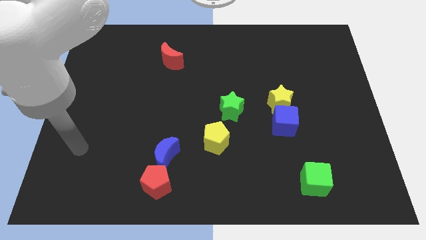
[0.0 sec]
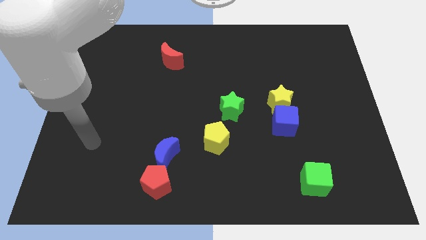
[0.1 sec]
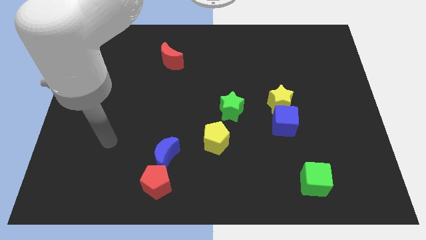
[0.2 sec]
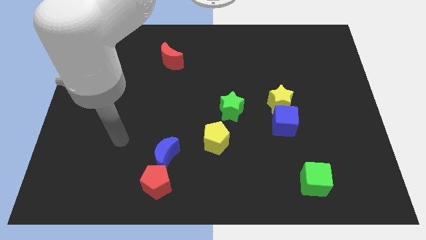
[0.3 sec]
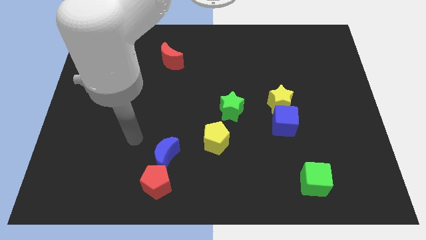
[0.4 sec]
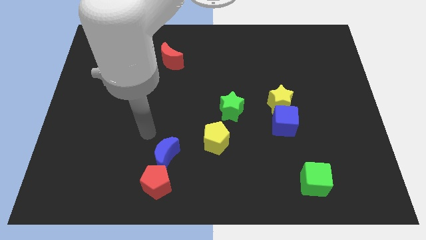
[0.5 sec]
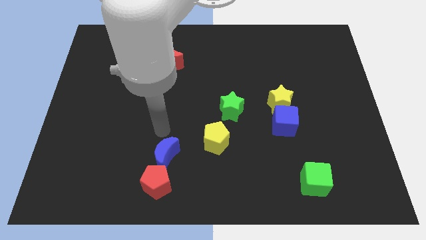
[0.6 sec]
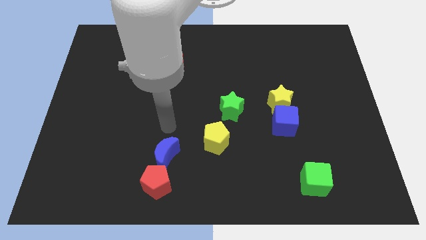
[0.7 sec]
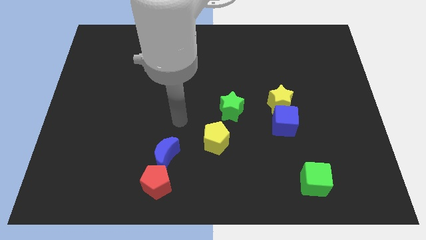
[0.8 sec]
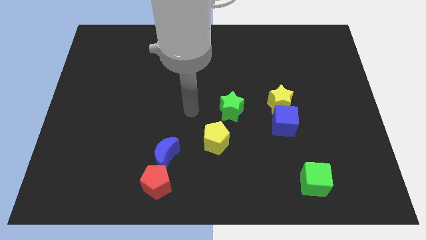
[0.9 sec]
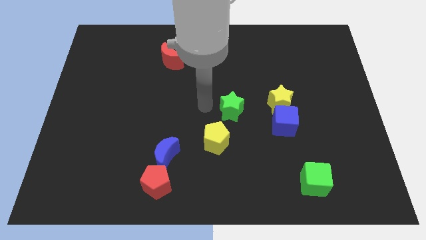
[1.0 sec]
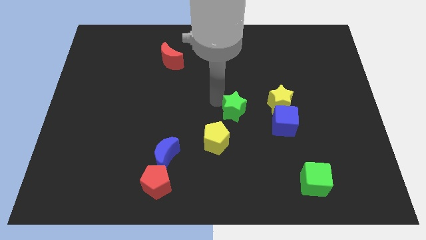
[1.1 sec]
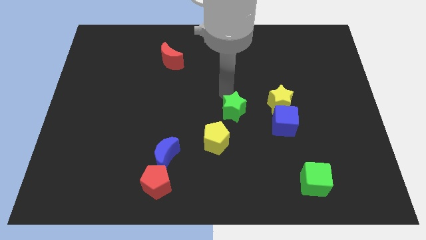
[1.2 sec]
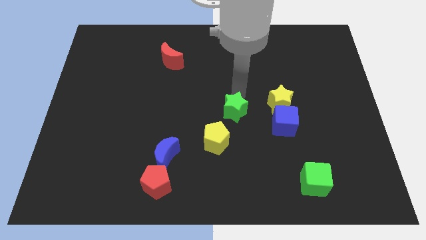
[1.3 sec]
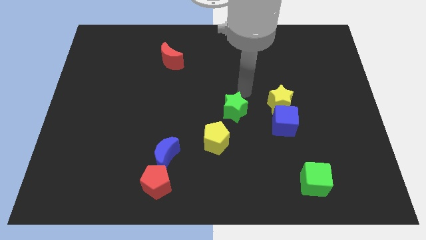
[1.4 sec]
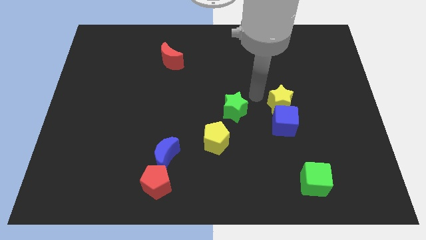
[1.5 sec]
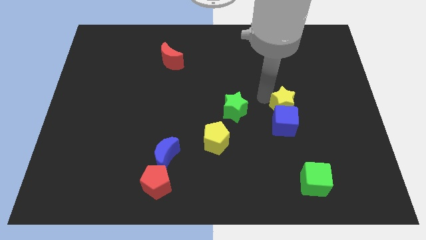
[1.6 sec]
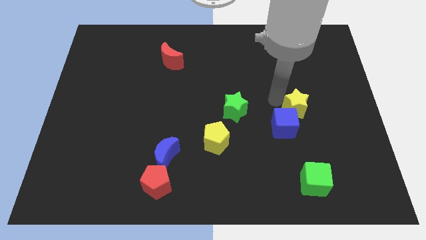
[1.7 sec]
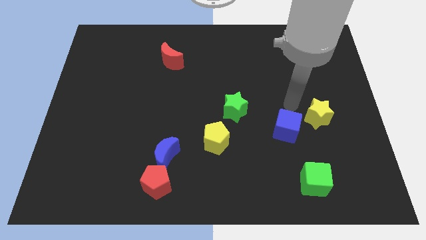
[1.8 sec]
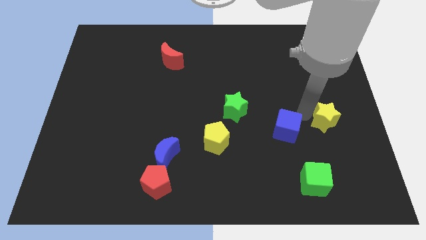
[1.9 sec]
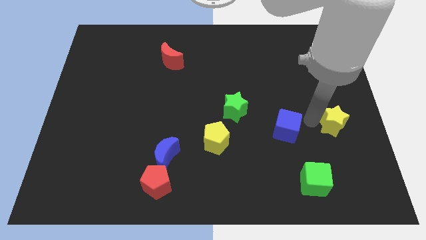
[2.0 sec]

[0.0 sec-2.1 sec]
separate the blue cube from the yellow star

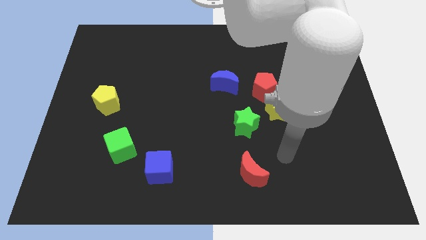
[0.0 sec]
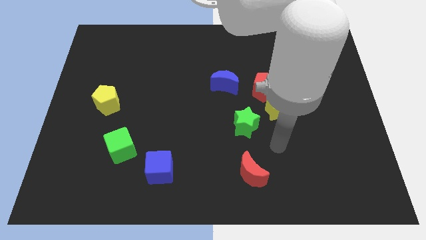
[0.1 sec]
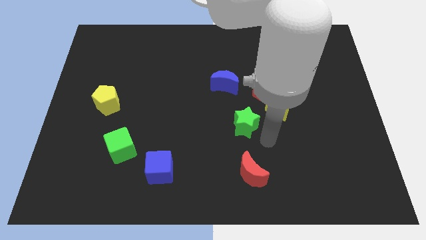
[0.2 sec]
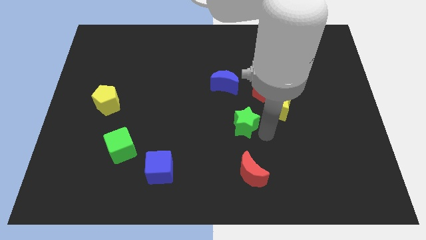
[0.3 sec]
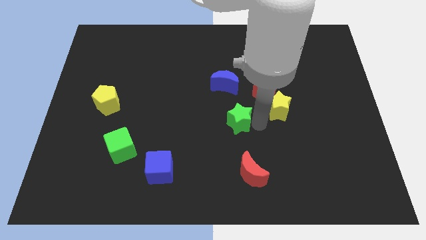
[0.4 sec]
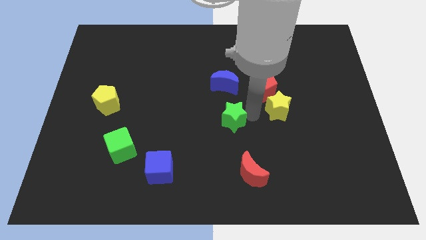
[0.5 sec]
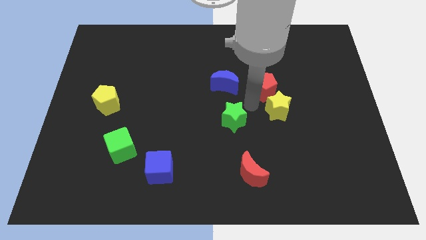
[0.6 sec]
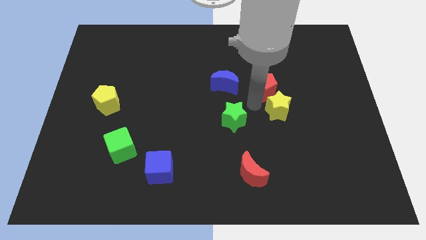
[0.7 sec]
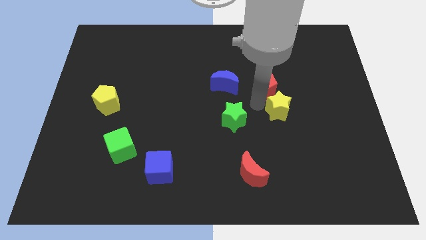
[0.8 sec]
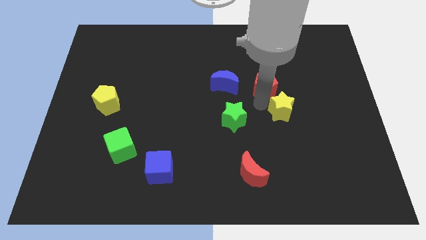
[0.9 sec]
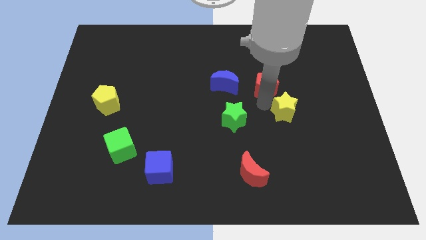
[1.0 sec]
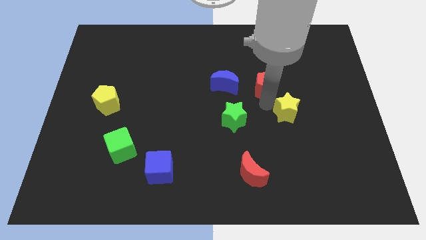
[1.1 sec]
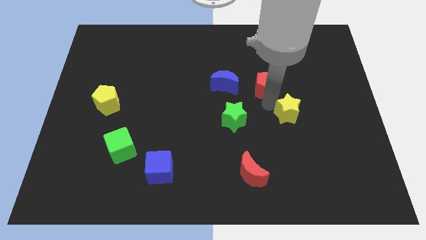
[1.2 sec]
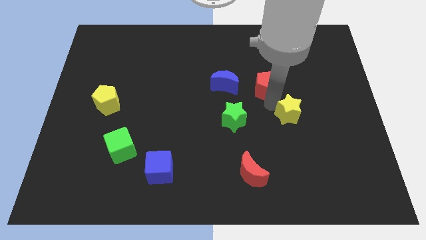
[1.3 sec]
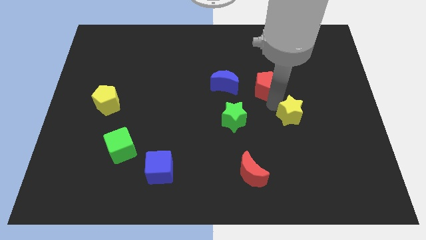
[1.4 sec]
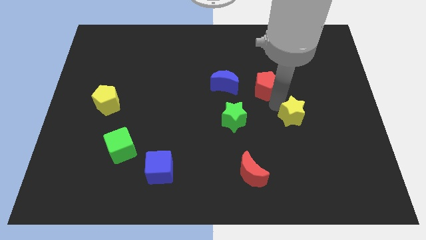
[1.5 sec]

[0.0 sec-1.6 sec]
pull the yellow star apart from the red pentagon and green star

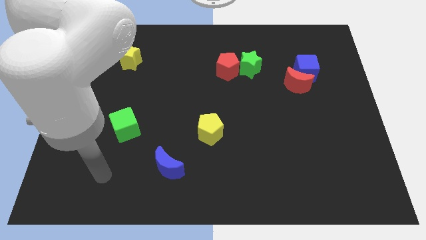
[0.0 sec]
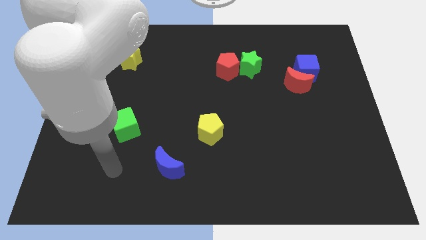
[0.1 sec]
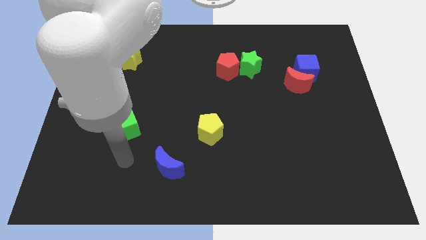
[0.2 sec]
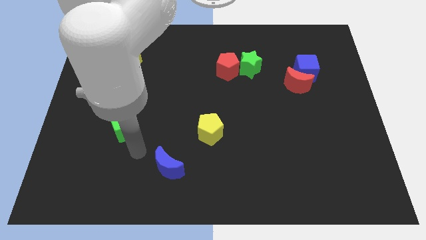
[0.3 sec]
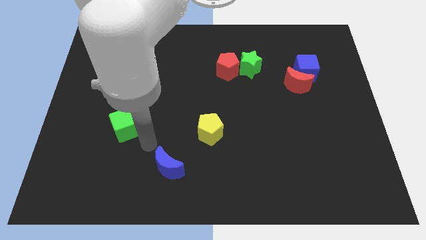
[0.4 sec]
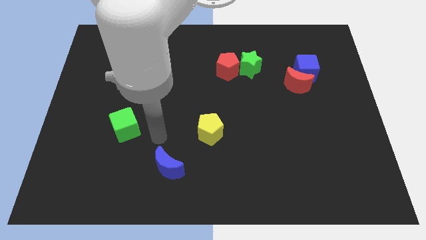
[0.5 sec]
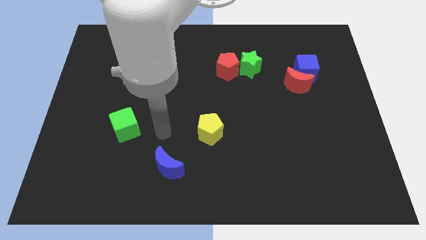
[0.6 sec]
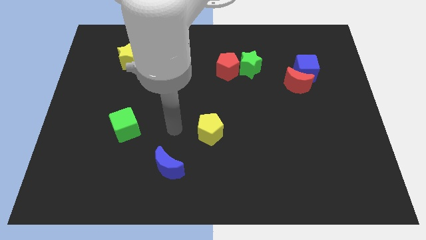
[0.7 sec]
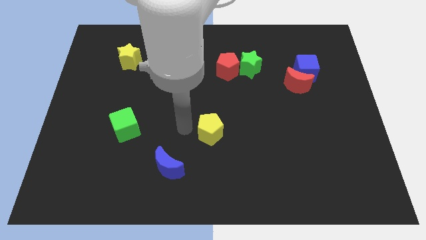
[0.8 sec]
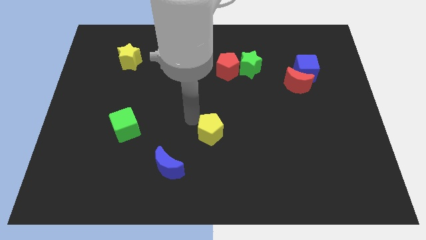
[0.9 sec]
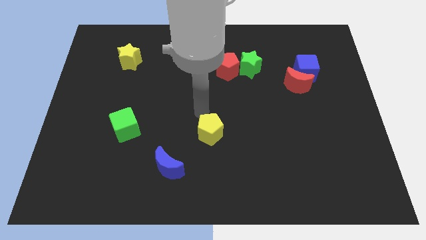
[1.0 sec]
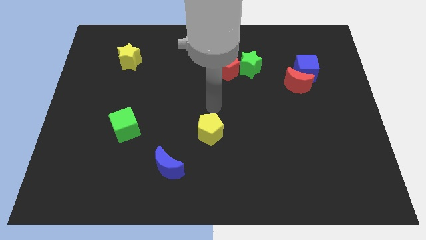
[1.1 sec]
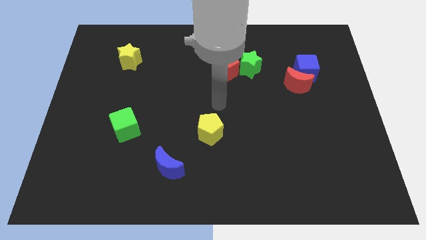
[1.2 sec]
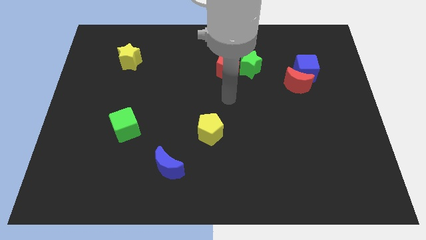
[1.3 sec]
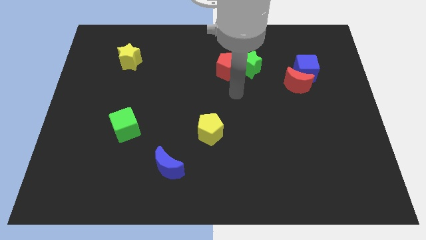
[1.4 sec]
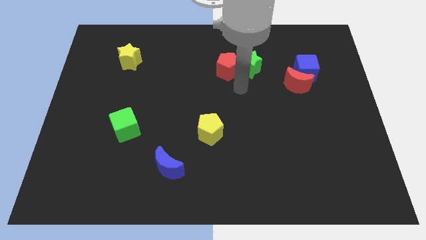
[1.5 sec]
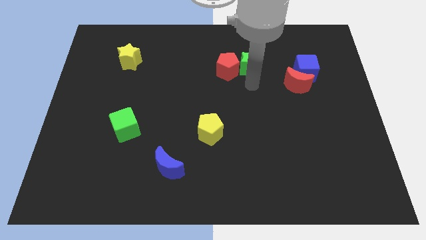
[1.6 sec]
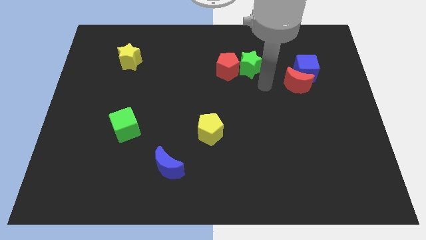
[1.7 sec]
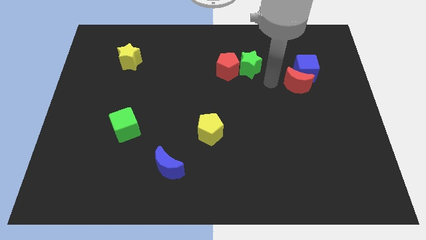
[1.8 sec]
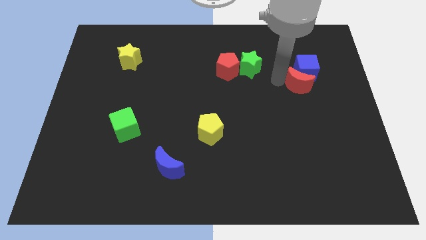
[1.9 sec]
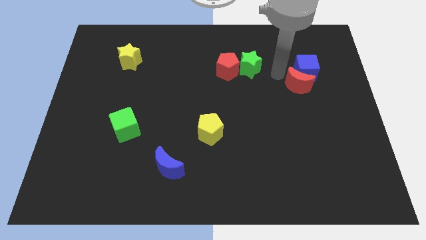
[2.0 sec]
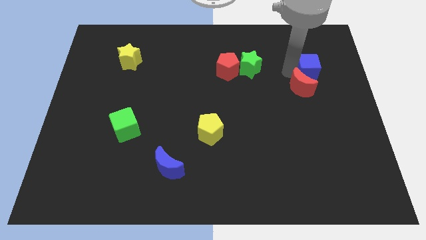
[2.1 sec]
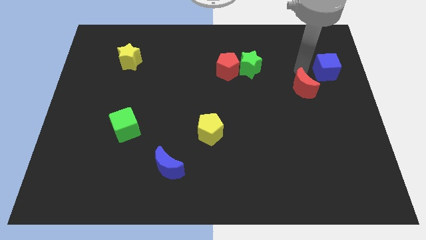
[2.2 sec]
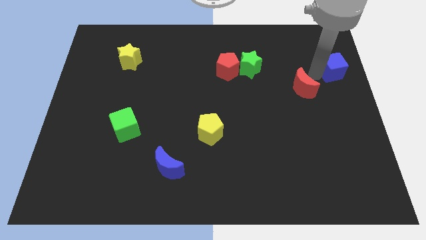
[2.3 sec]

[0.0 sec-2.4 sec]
move the red moon away from the blue cube

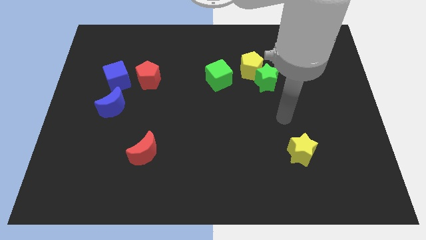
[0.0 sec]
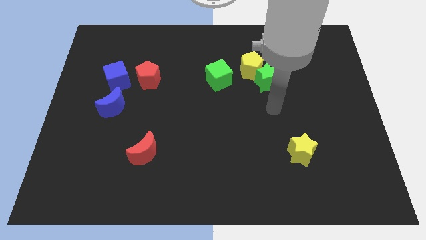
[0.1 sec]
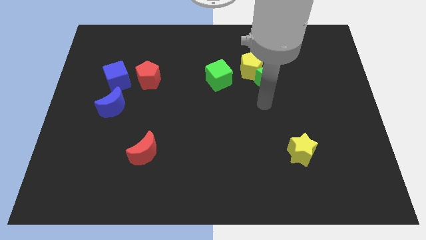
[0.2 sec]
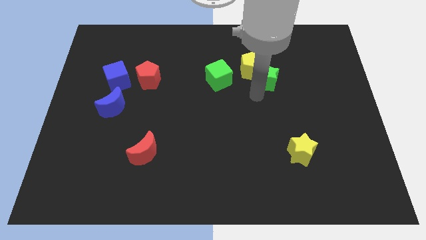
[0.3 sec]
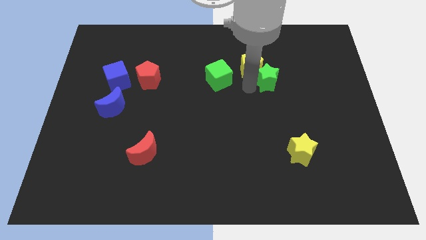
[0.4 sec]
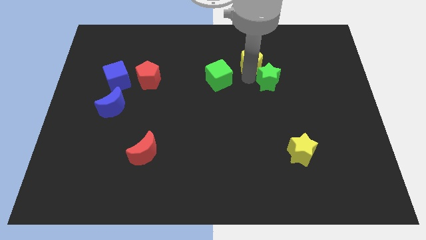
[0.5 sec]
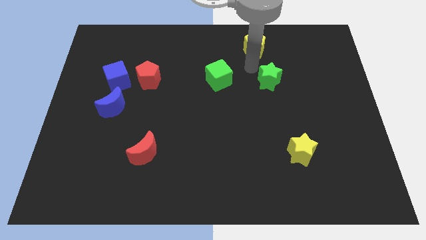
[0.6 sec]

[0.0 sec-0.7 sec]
separate the green star from the yellow pentagon

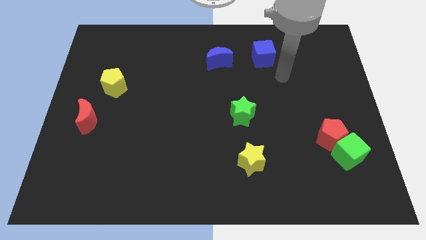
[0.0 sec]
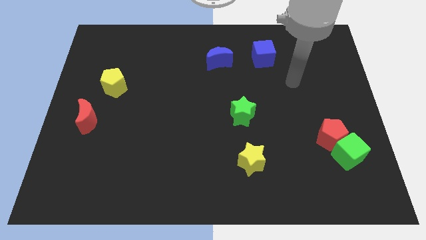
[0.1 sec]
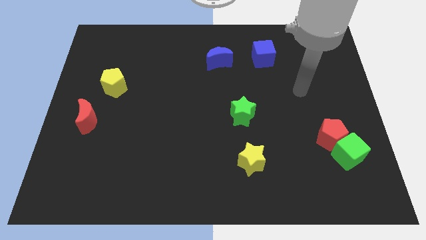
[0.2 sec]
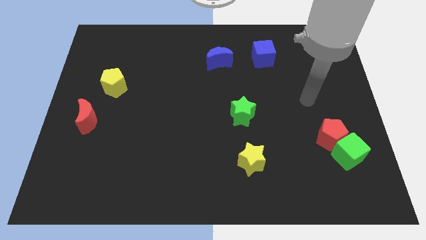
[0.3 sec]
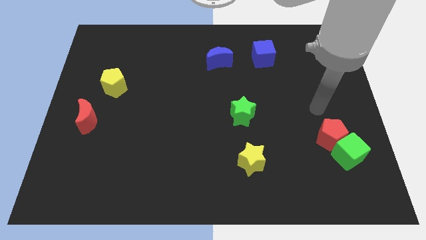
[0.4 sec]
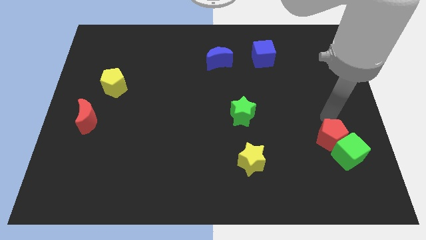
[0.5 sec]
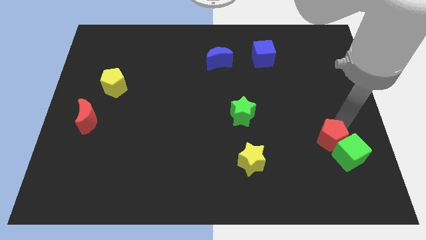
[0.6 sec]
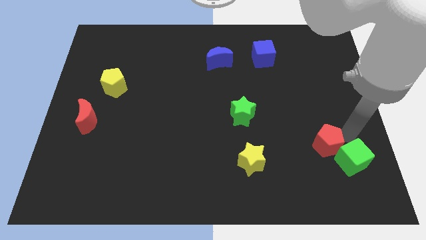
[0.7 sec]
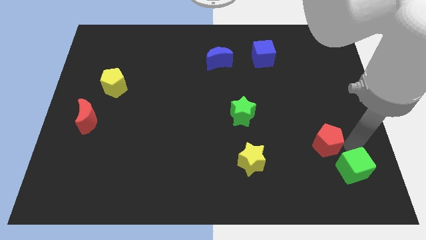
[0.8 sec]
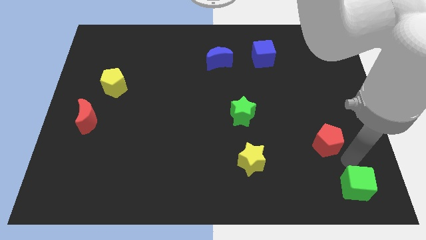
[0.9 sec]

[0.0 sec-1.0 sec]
separate the red pentagon from the green cube

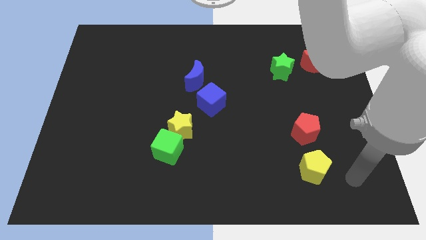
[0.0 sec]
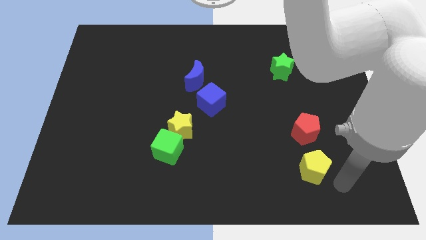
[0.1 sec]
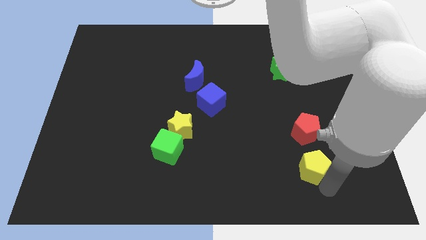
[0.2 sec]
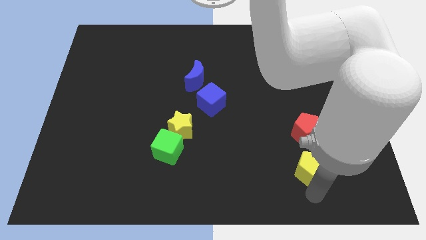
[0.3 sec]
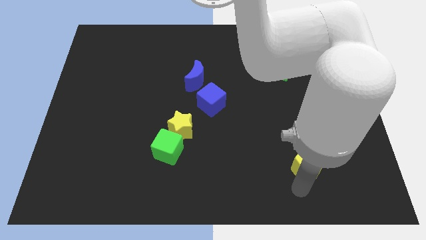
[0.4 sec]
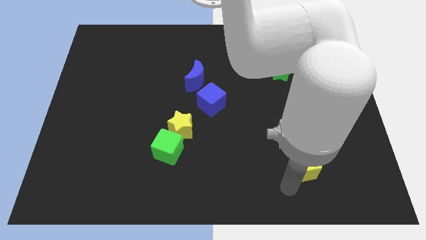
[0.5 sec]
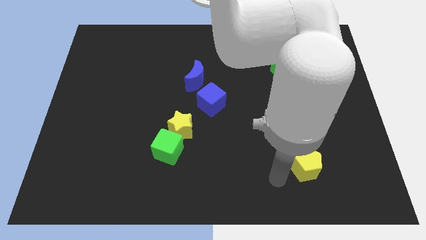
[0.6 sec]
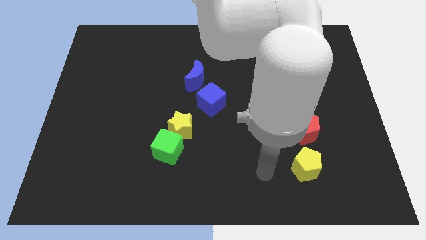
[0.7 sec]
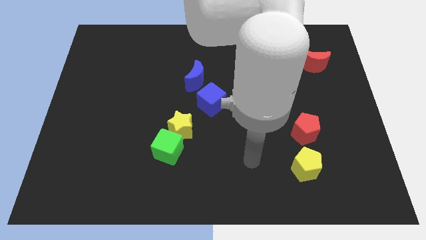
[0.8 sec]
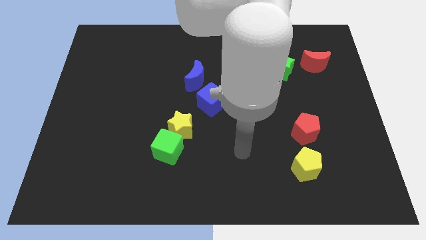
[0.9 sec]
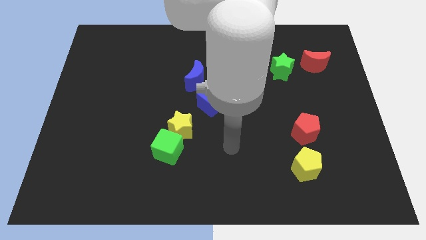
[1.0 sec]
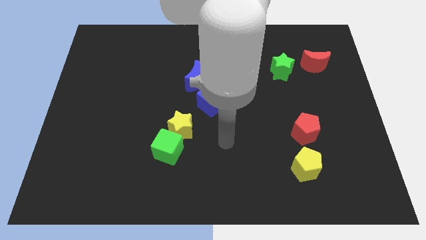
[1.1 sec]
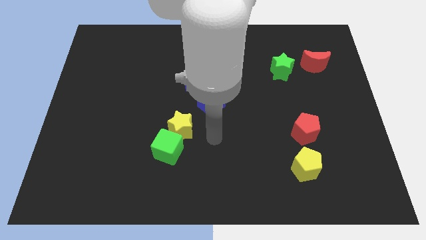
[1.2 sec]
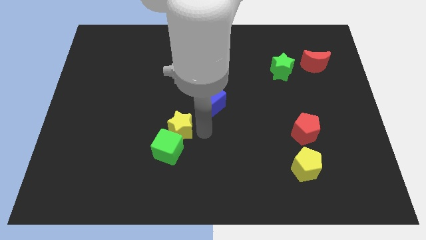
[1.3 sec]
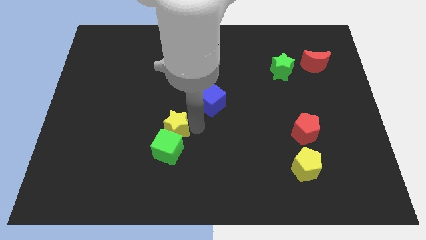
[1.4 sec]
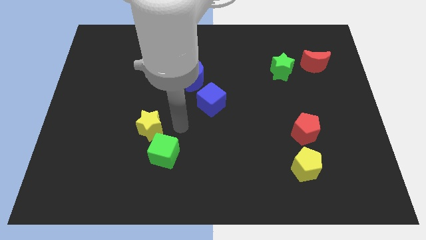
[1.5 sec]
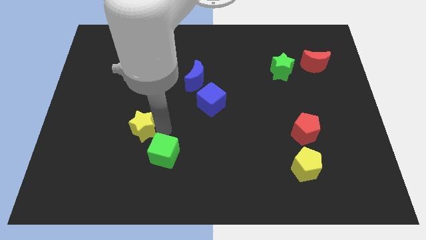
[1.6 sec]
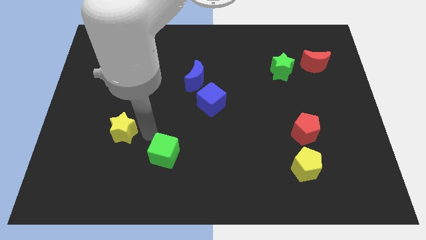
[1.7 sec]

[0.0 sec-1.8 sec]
separate the green cube from the yellow star
